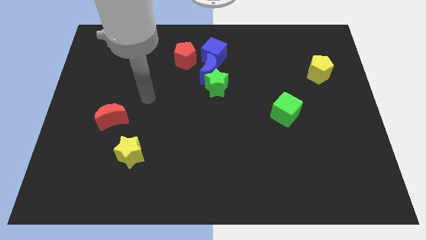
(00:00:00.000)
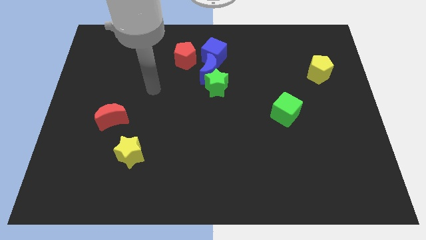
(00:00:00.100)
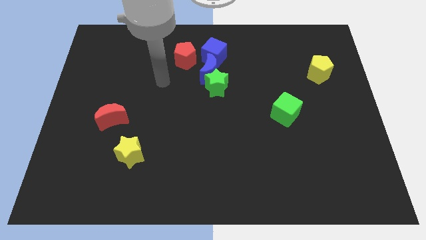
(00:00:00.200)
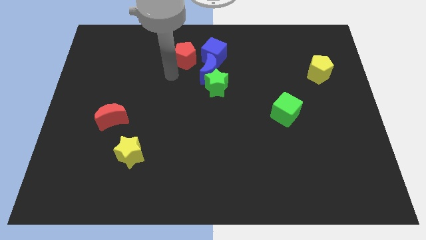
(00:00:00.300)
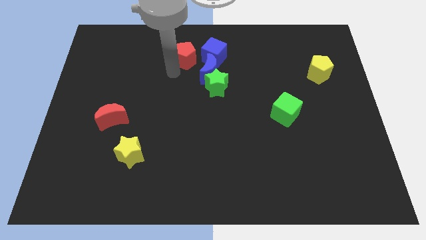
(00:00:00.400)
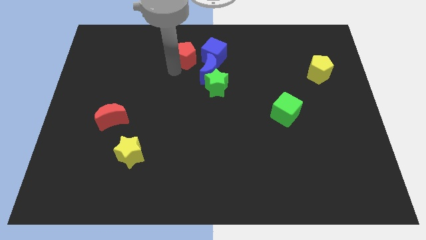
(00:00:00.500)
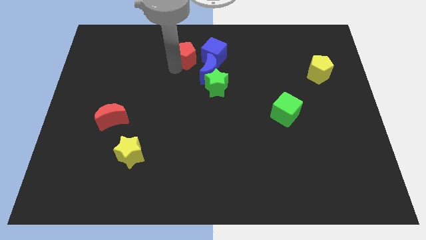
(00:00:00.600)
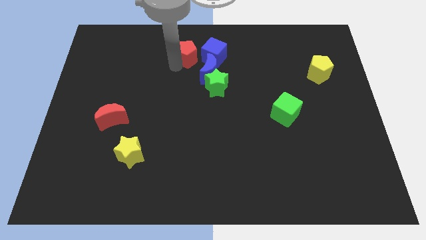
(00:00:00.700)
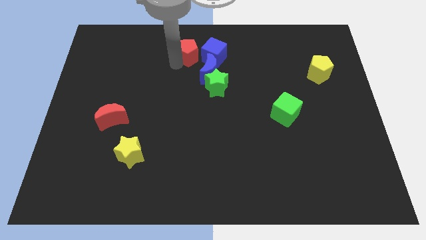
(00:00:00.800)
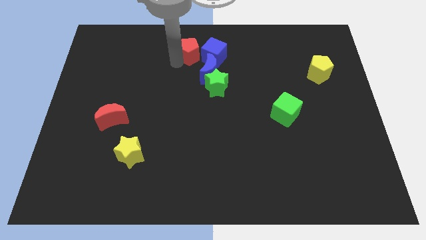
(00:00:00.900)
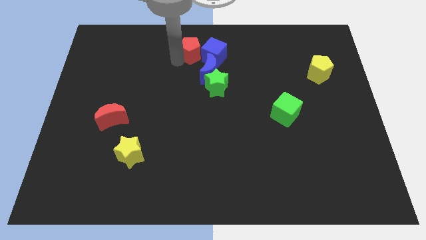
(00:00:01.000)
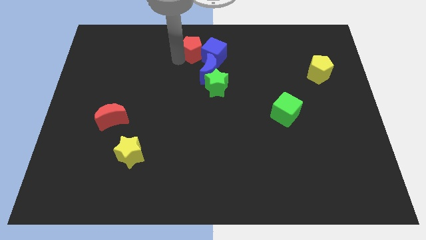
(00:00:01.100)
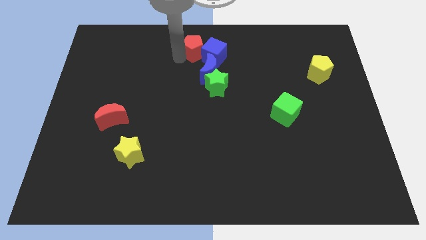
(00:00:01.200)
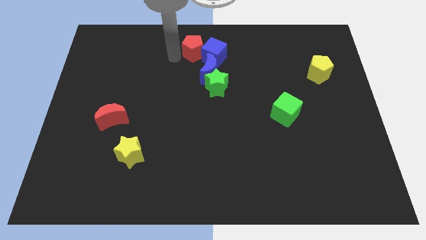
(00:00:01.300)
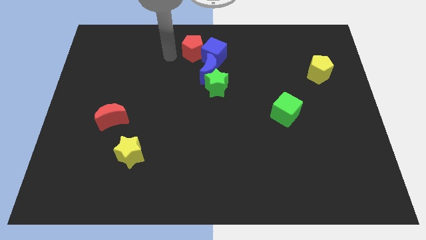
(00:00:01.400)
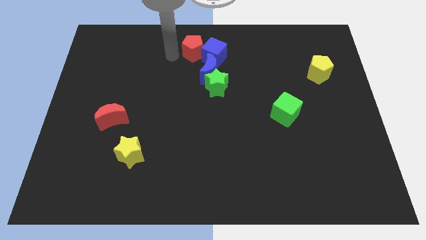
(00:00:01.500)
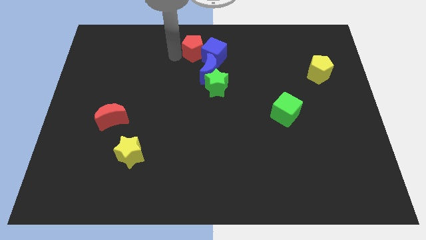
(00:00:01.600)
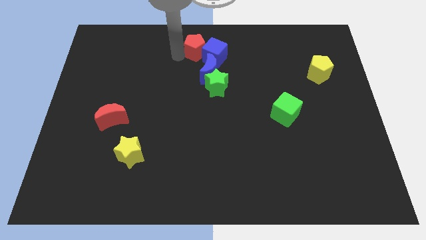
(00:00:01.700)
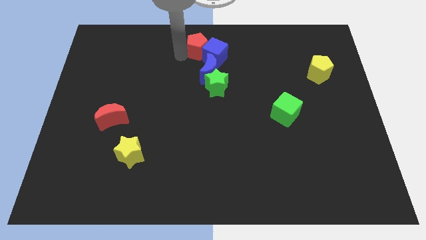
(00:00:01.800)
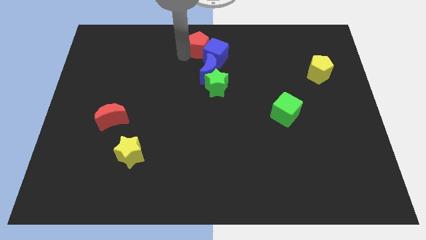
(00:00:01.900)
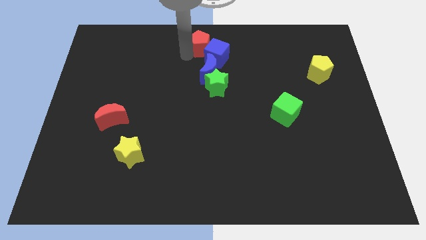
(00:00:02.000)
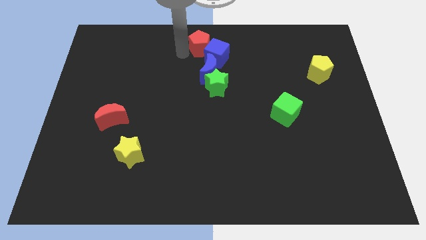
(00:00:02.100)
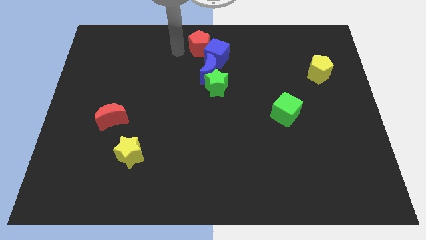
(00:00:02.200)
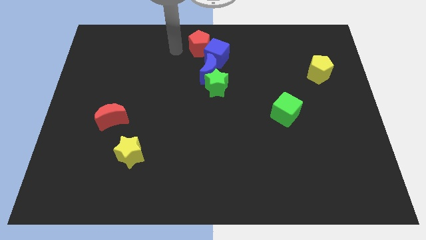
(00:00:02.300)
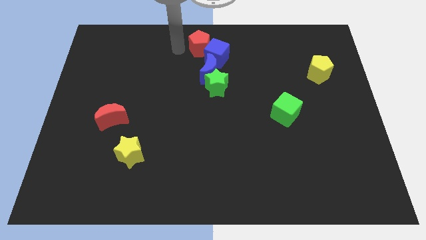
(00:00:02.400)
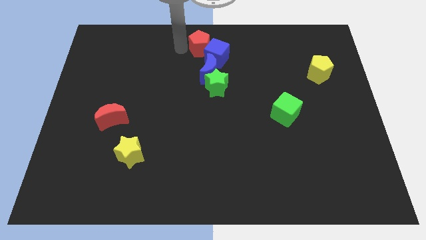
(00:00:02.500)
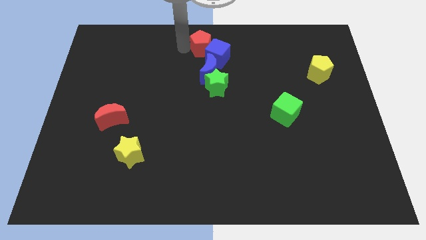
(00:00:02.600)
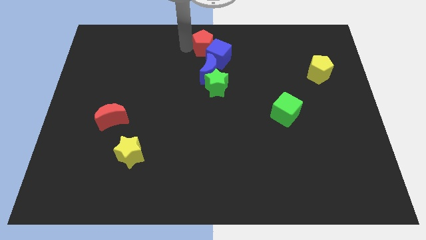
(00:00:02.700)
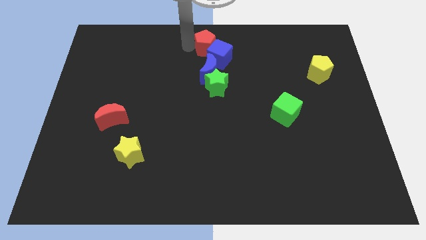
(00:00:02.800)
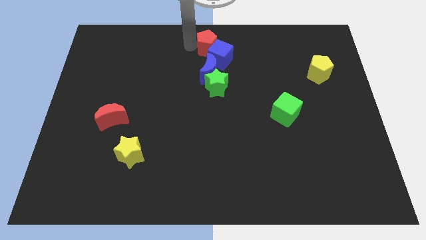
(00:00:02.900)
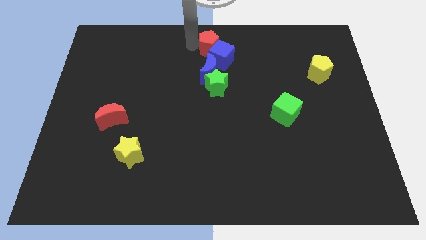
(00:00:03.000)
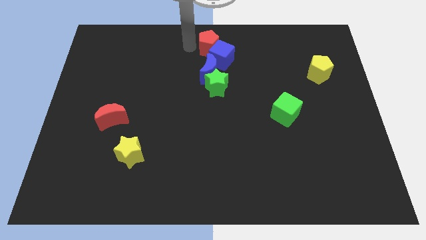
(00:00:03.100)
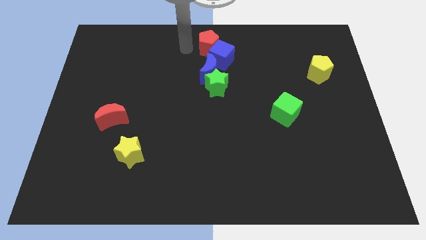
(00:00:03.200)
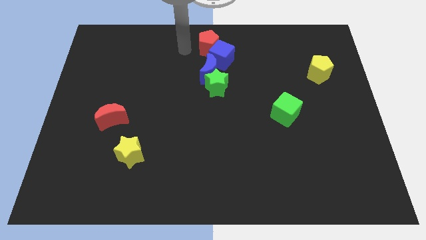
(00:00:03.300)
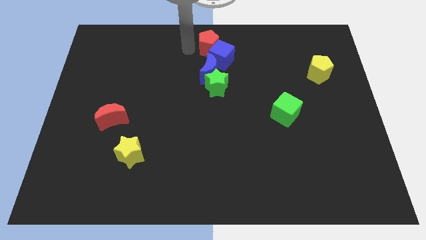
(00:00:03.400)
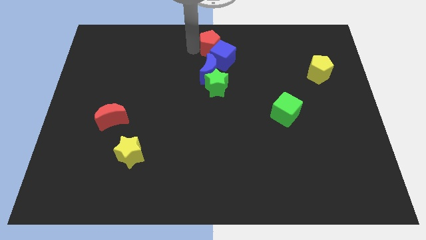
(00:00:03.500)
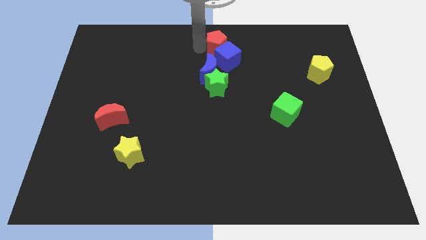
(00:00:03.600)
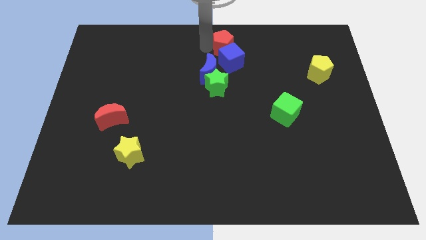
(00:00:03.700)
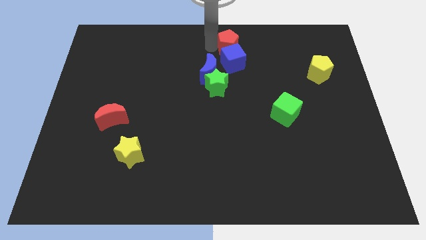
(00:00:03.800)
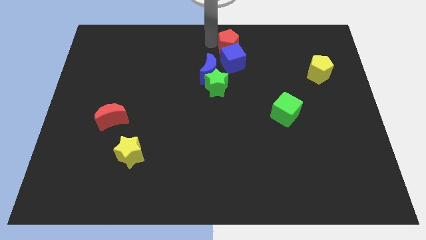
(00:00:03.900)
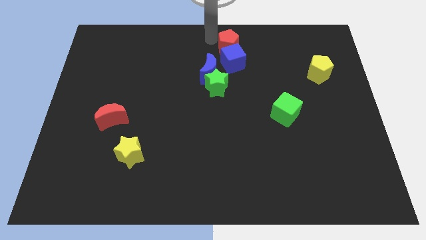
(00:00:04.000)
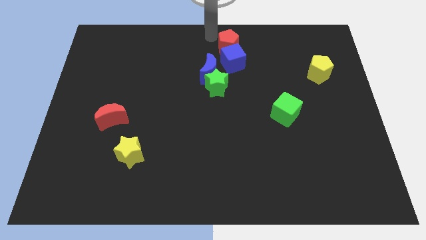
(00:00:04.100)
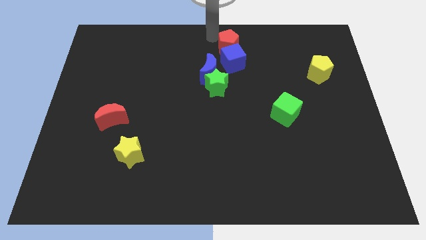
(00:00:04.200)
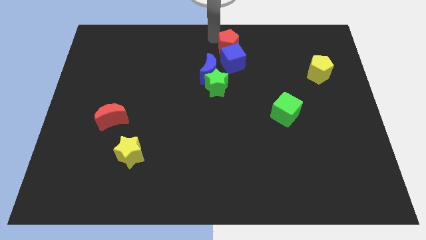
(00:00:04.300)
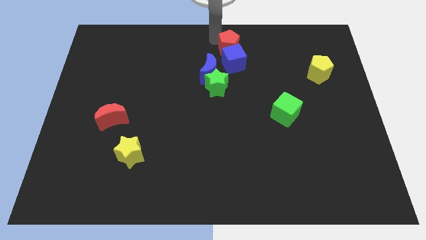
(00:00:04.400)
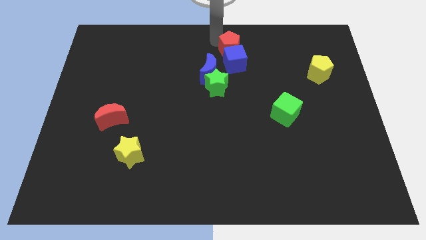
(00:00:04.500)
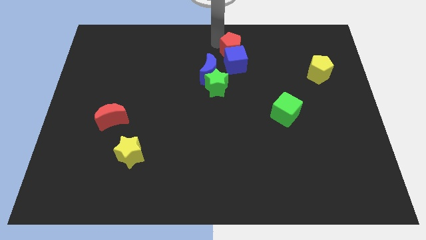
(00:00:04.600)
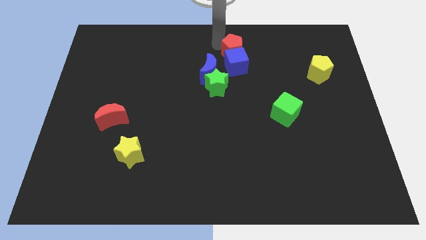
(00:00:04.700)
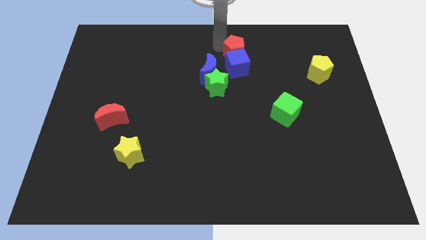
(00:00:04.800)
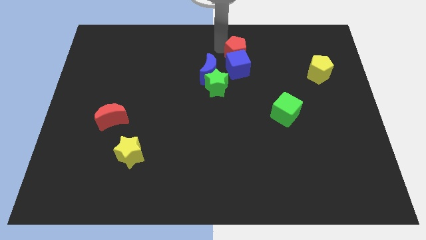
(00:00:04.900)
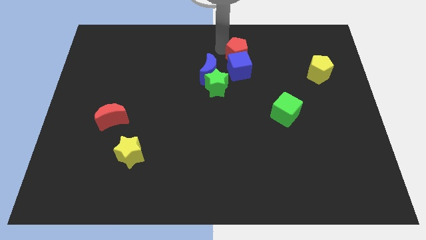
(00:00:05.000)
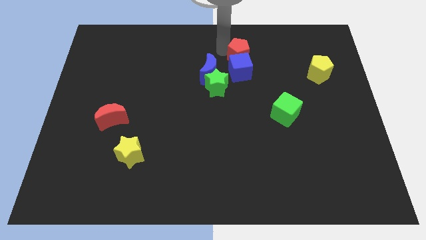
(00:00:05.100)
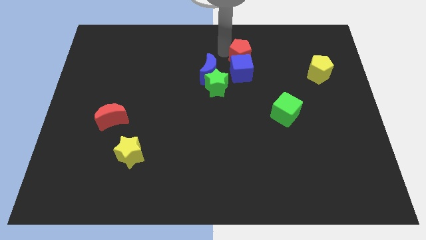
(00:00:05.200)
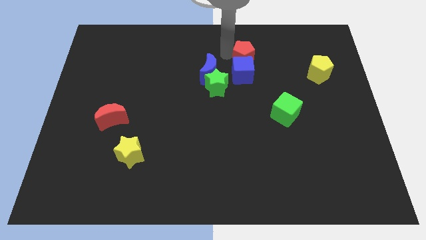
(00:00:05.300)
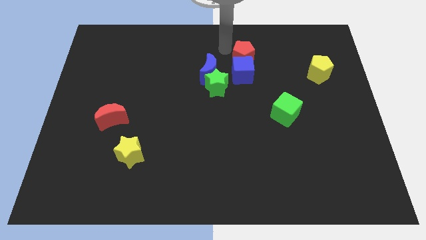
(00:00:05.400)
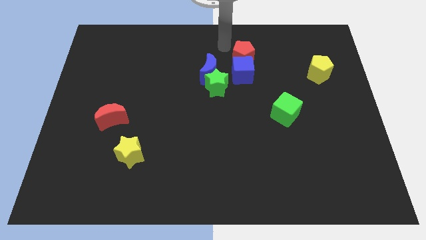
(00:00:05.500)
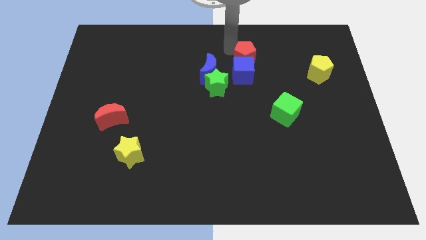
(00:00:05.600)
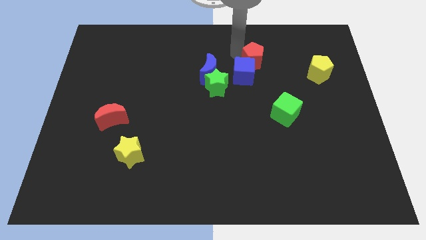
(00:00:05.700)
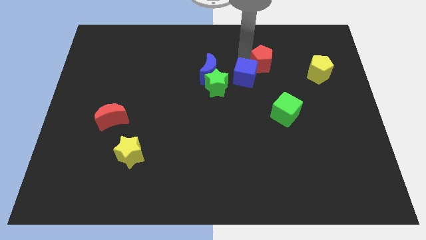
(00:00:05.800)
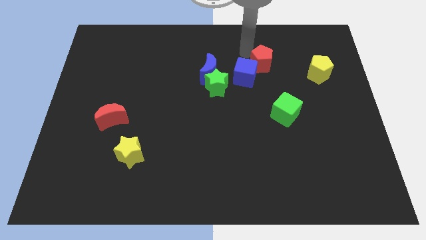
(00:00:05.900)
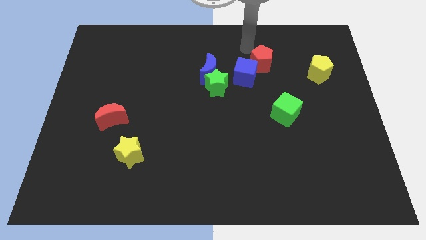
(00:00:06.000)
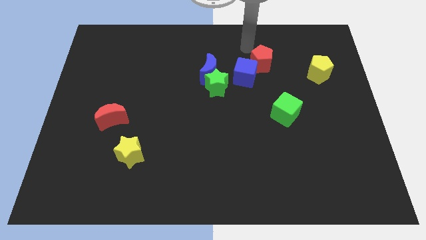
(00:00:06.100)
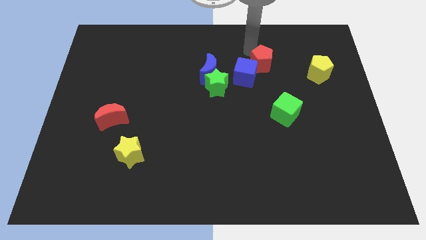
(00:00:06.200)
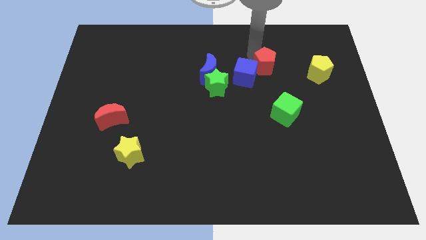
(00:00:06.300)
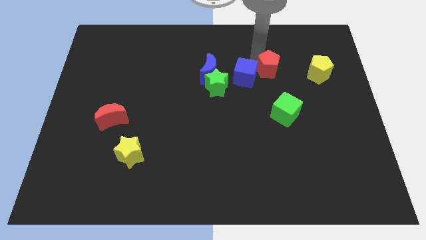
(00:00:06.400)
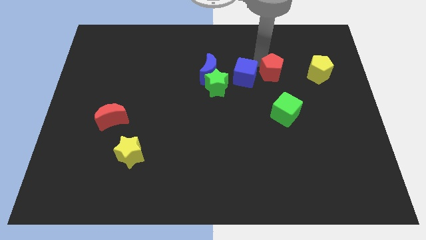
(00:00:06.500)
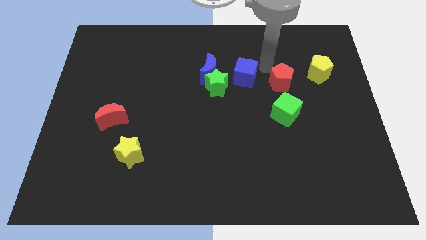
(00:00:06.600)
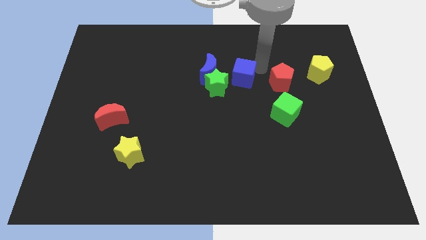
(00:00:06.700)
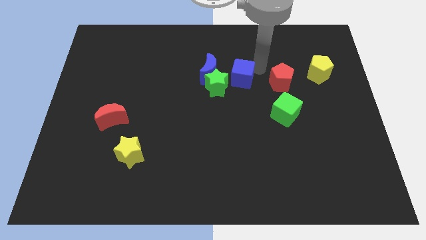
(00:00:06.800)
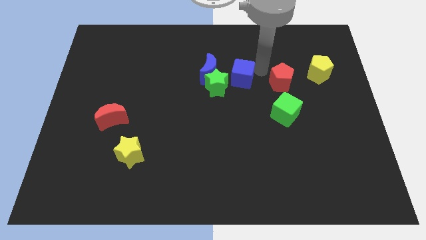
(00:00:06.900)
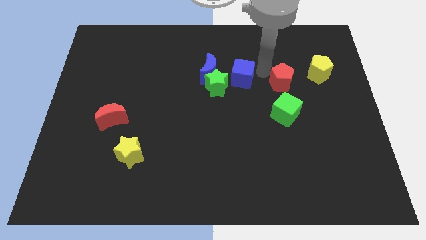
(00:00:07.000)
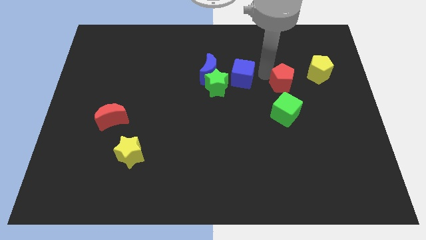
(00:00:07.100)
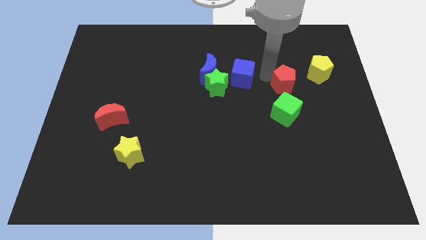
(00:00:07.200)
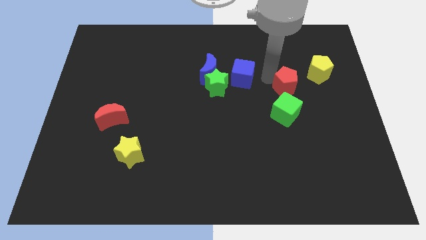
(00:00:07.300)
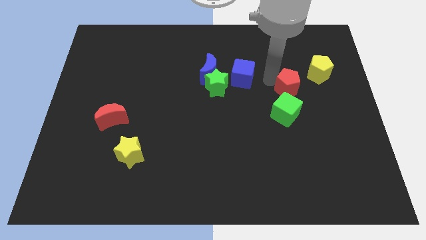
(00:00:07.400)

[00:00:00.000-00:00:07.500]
slide the red pentagon diagonally up and to the right of the green cube

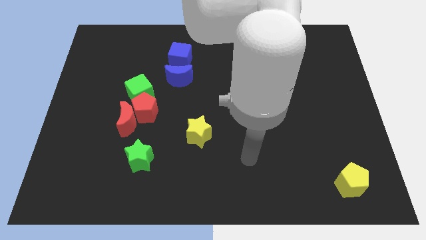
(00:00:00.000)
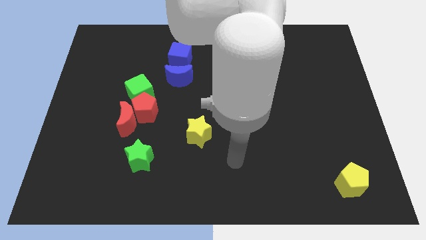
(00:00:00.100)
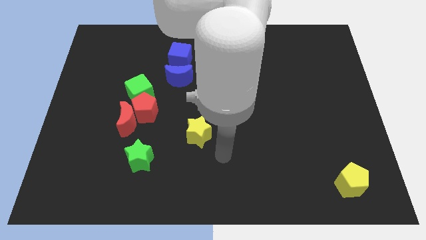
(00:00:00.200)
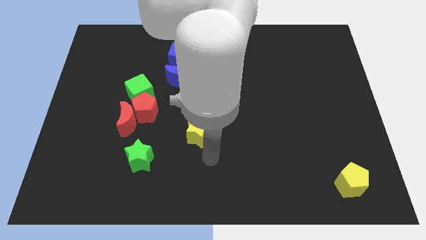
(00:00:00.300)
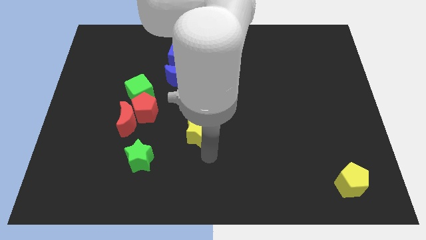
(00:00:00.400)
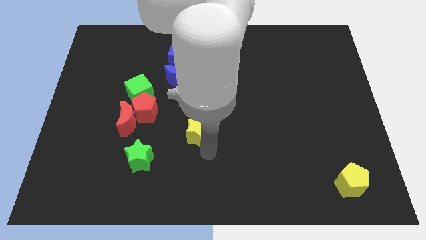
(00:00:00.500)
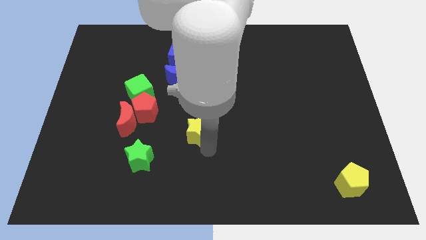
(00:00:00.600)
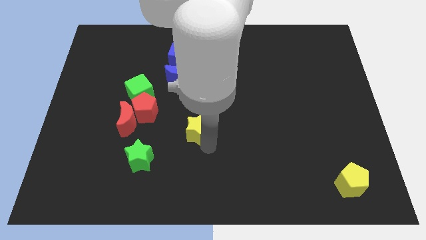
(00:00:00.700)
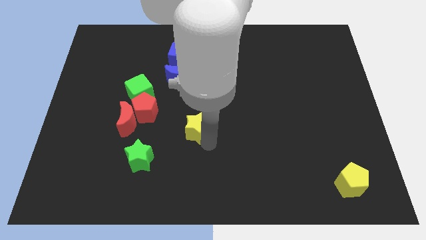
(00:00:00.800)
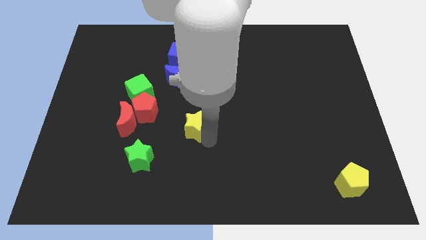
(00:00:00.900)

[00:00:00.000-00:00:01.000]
put the yellow star to the right side of the red pentagon
